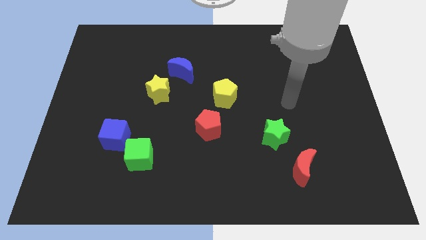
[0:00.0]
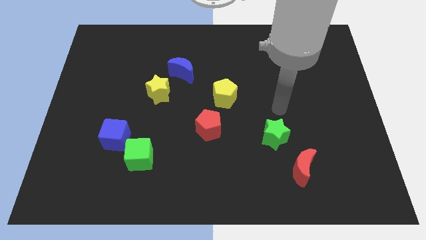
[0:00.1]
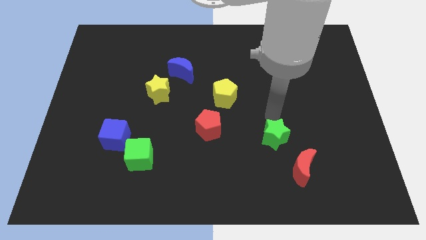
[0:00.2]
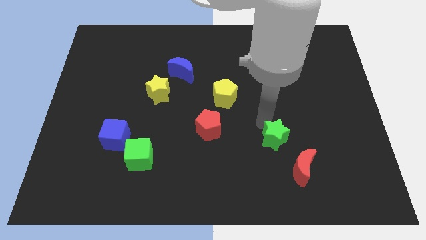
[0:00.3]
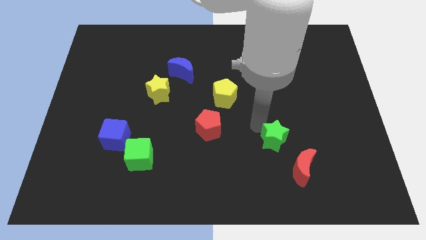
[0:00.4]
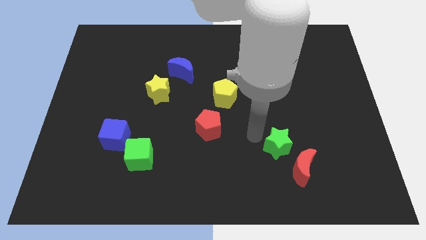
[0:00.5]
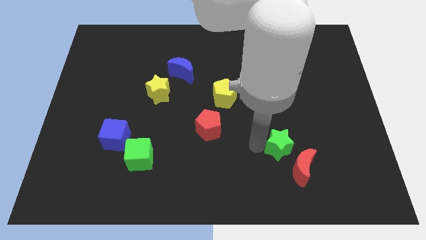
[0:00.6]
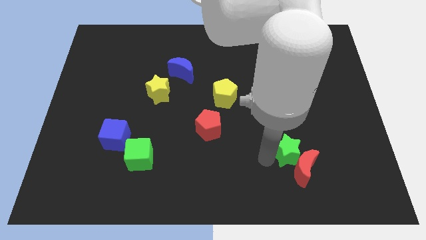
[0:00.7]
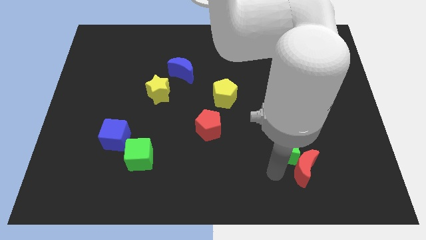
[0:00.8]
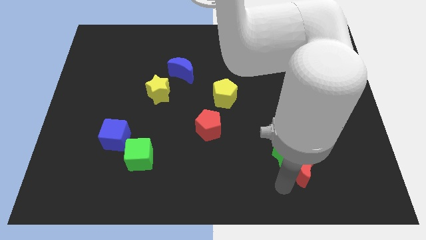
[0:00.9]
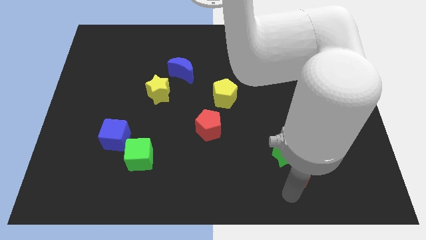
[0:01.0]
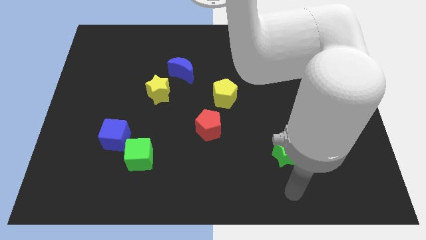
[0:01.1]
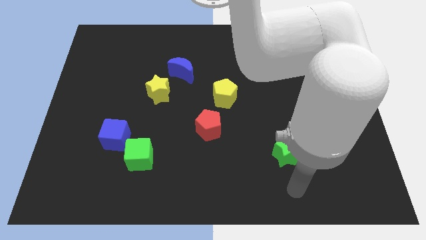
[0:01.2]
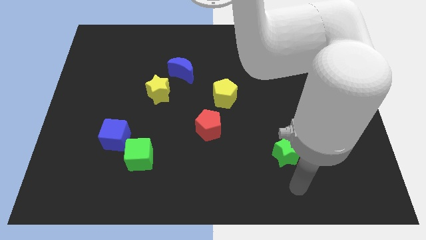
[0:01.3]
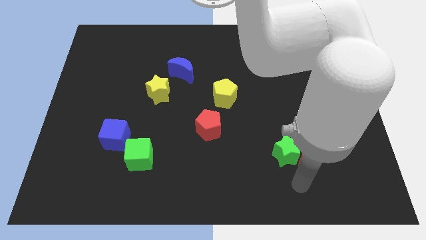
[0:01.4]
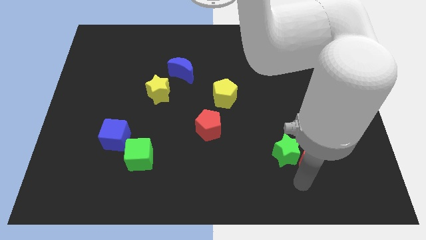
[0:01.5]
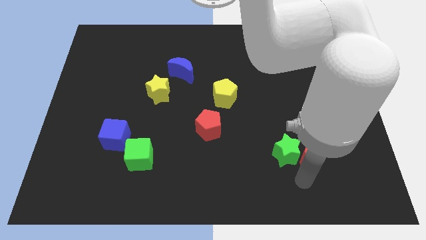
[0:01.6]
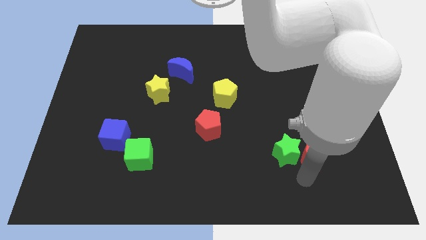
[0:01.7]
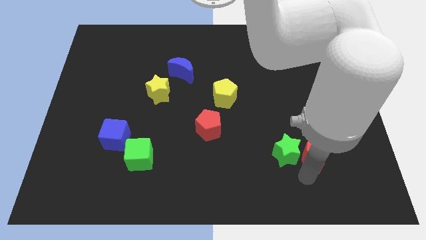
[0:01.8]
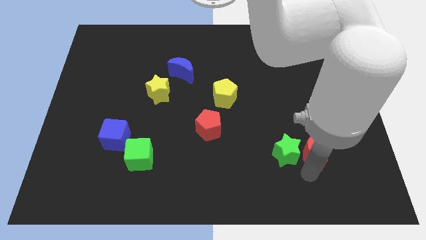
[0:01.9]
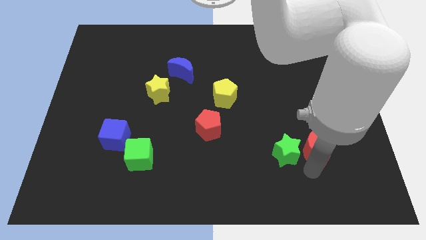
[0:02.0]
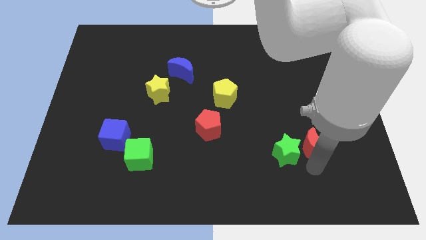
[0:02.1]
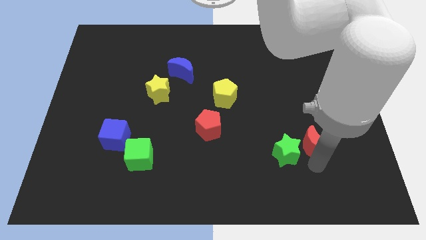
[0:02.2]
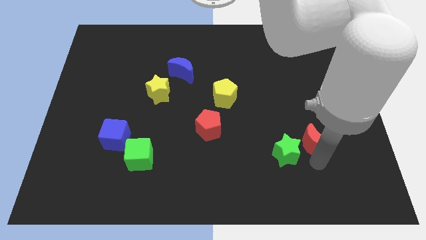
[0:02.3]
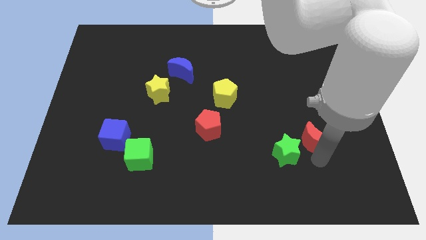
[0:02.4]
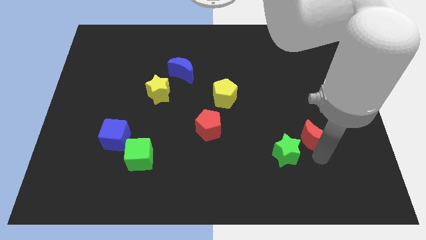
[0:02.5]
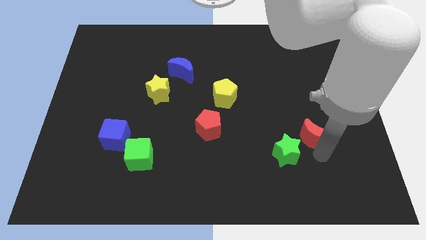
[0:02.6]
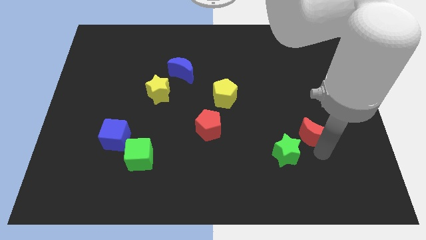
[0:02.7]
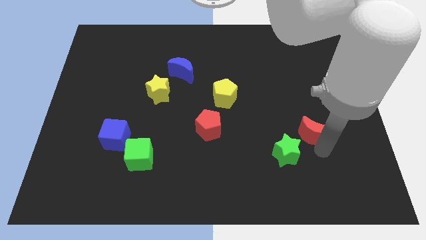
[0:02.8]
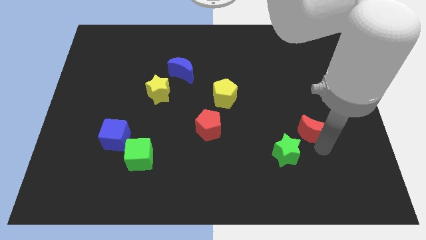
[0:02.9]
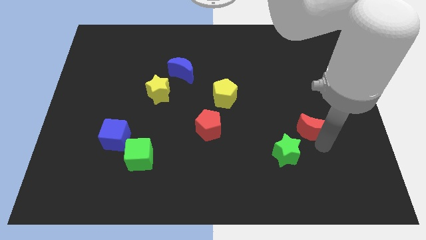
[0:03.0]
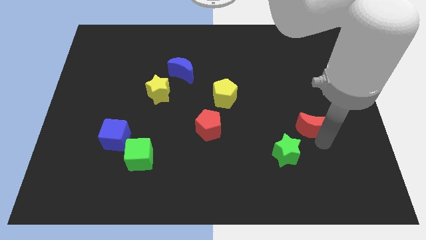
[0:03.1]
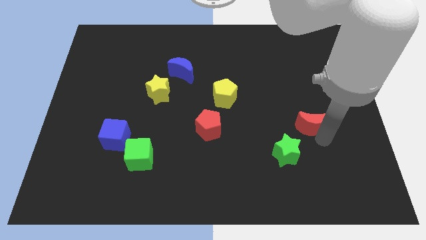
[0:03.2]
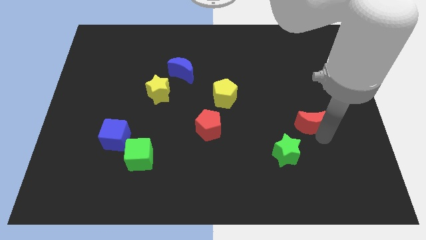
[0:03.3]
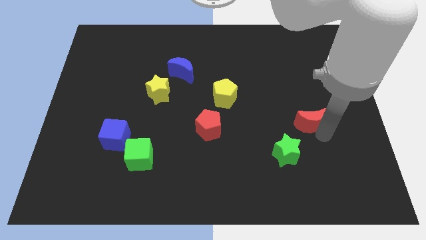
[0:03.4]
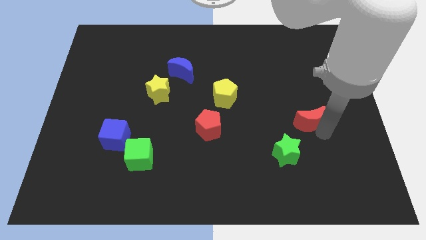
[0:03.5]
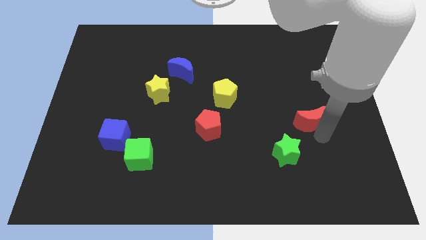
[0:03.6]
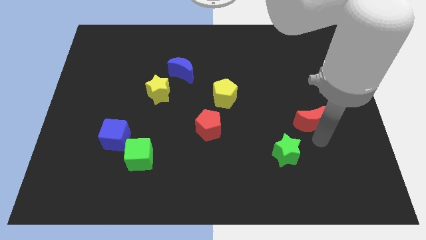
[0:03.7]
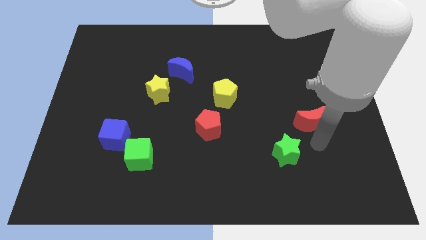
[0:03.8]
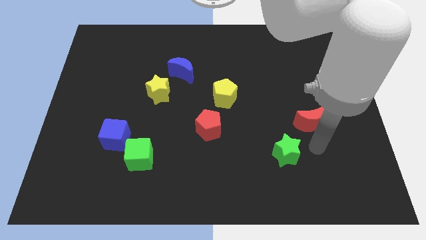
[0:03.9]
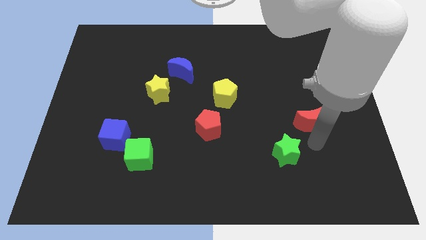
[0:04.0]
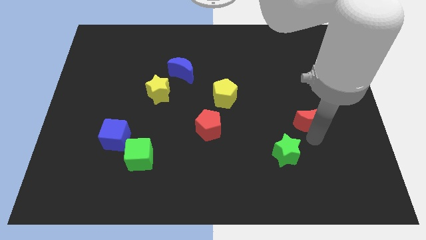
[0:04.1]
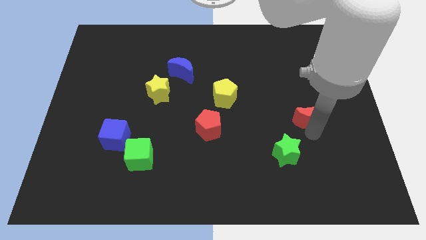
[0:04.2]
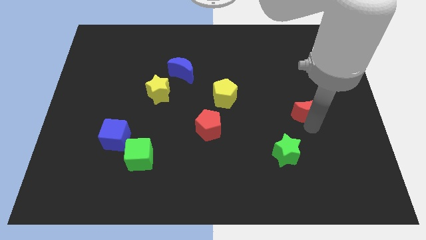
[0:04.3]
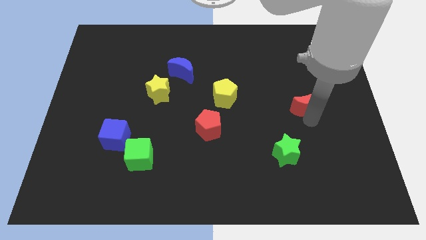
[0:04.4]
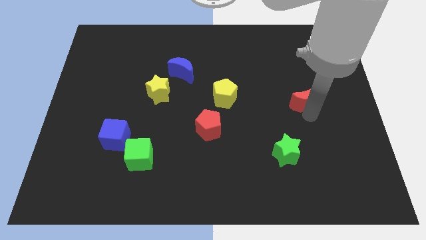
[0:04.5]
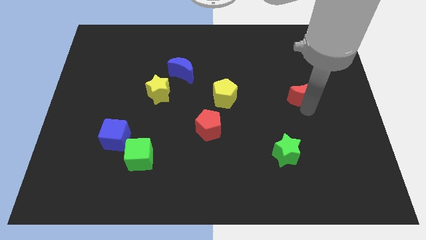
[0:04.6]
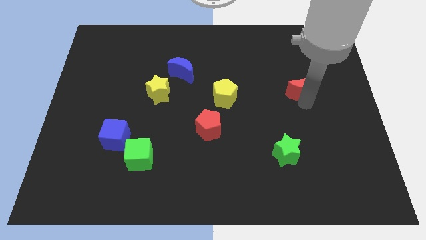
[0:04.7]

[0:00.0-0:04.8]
slide the red moon upwards

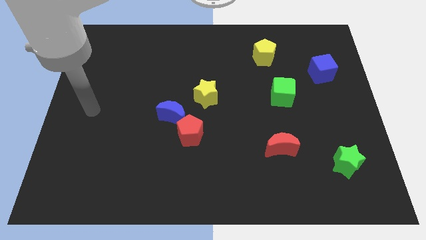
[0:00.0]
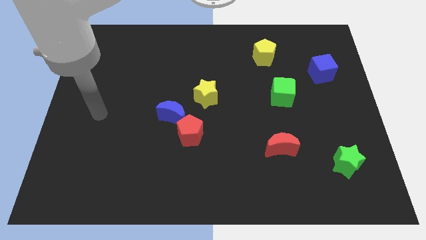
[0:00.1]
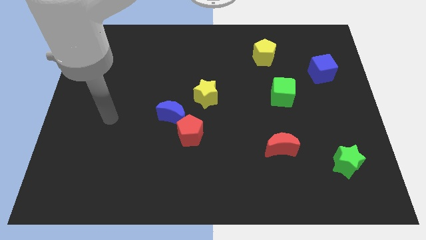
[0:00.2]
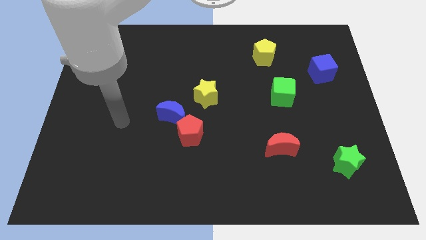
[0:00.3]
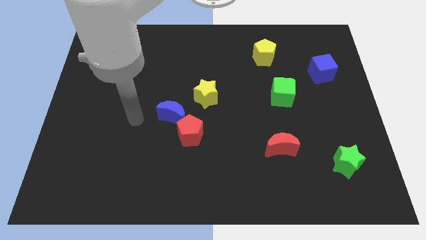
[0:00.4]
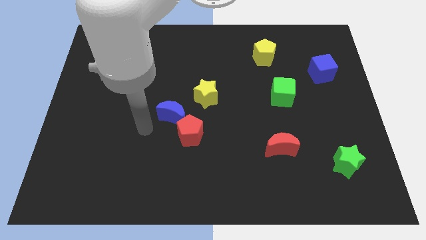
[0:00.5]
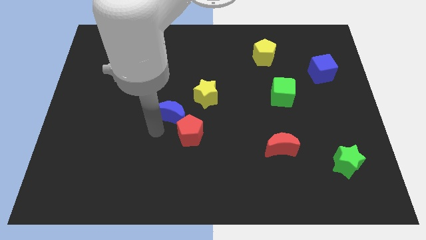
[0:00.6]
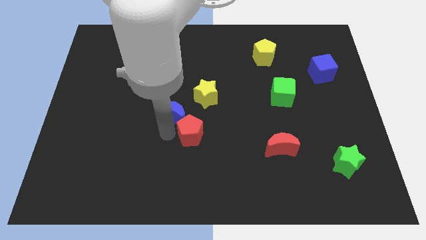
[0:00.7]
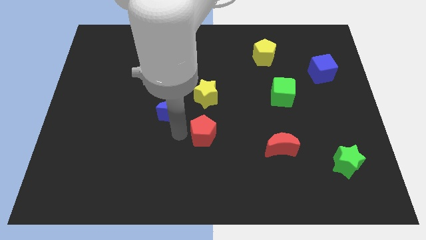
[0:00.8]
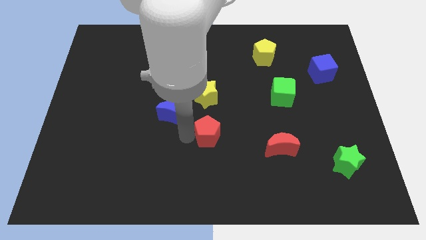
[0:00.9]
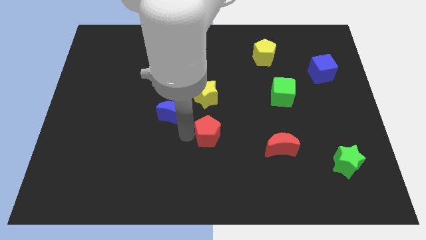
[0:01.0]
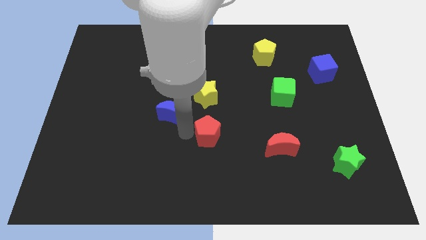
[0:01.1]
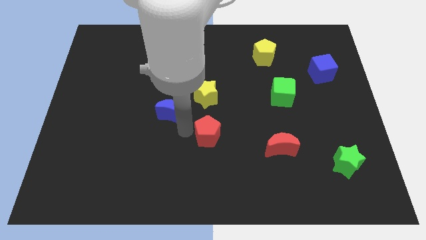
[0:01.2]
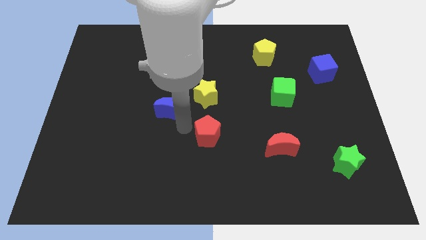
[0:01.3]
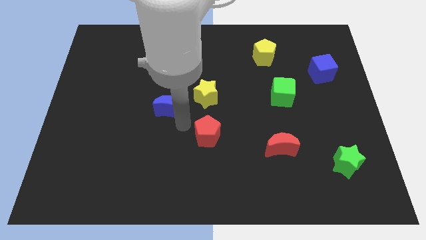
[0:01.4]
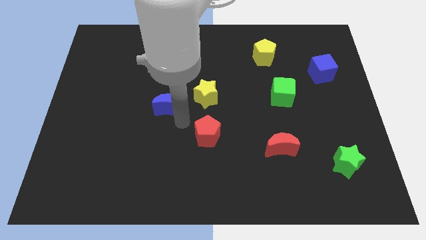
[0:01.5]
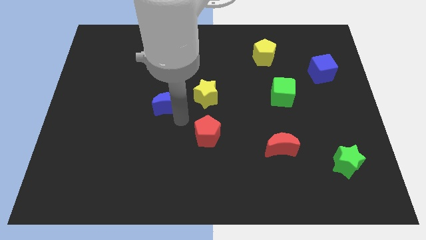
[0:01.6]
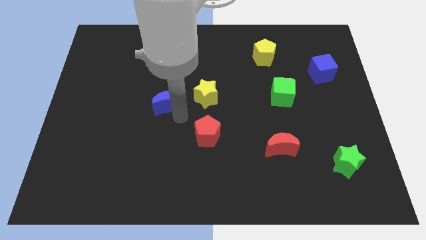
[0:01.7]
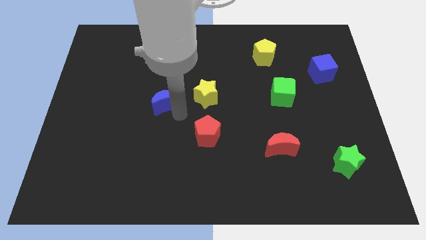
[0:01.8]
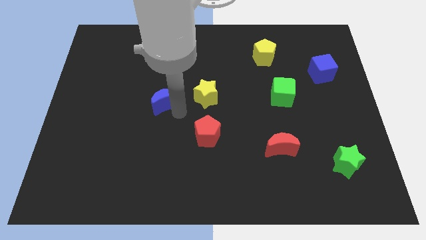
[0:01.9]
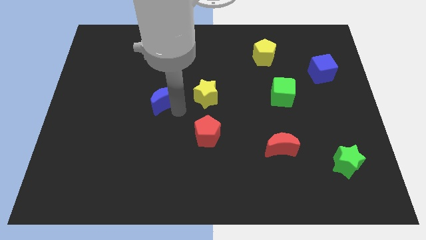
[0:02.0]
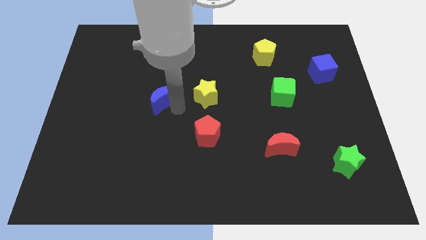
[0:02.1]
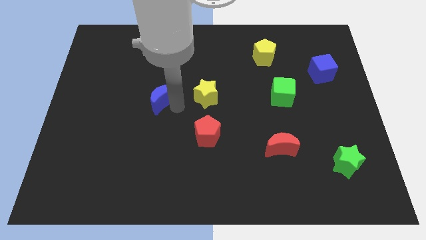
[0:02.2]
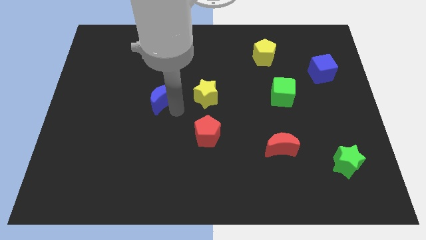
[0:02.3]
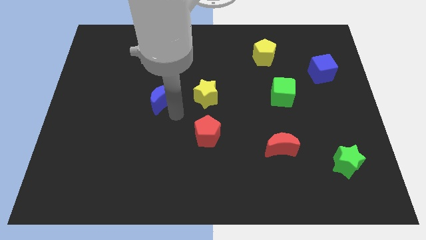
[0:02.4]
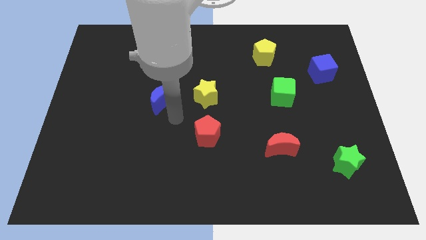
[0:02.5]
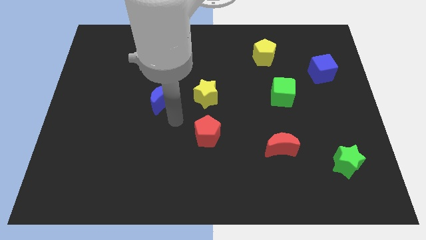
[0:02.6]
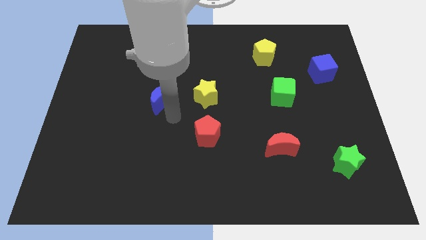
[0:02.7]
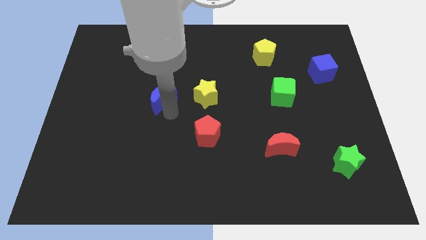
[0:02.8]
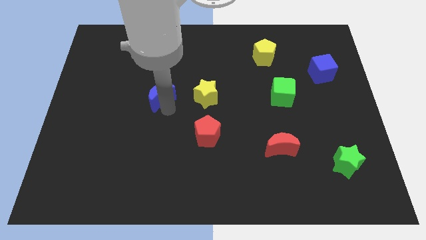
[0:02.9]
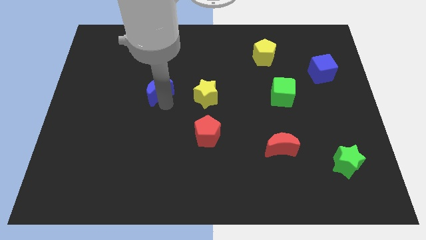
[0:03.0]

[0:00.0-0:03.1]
slightly slide the blue moon upwards and left

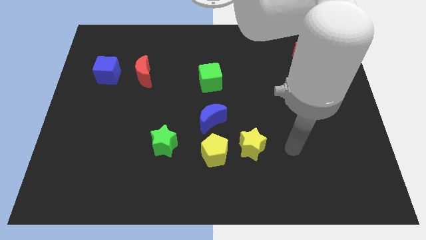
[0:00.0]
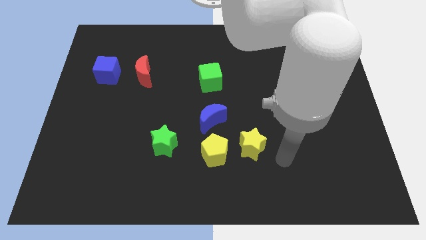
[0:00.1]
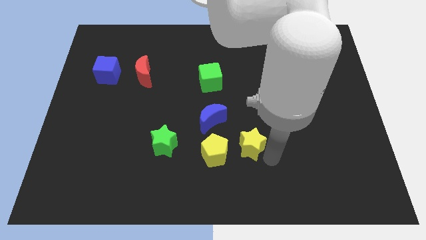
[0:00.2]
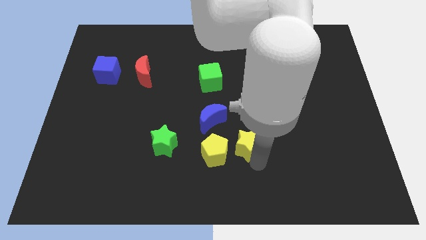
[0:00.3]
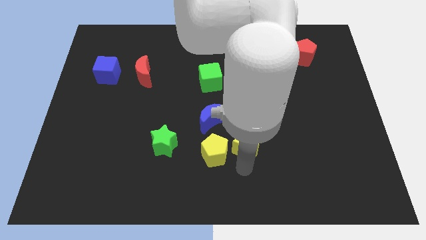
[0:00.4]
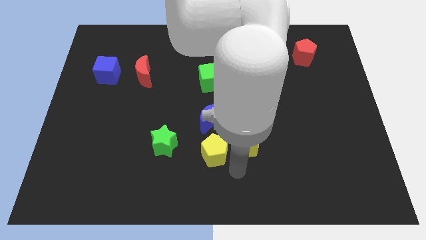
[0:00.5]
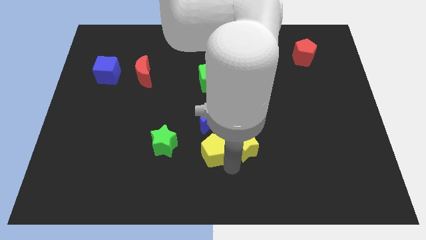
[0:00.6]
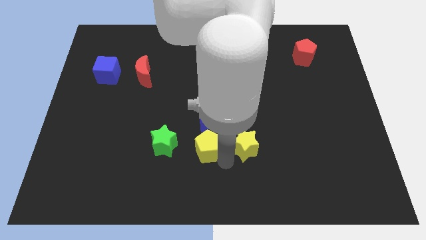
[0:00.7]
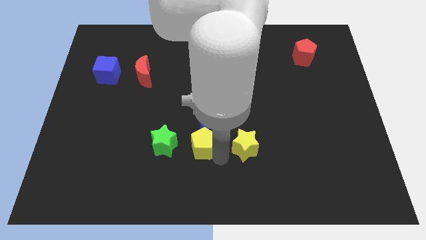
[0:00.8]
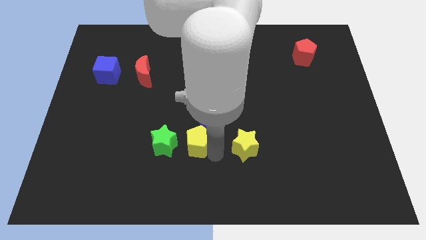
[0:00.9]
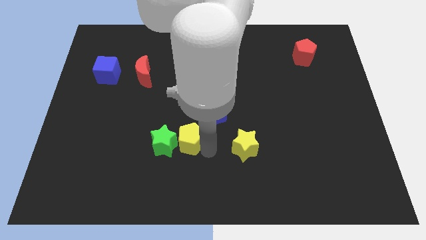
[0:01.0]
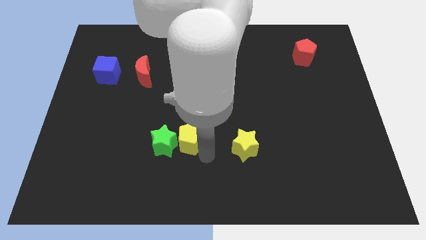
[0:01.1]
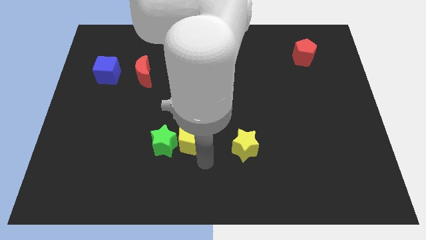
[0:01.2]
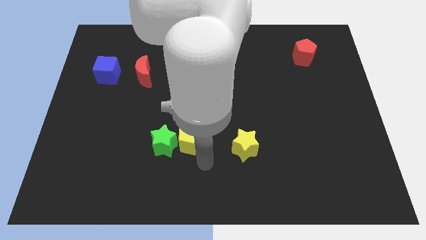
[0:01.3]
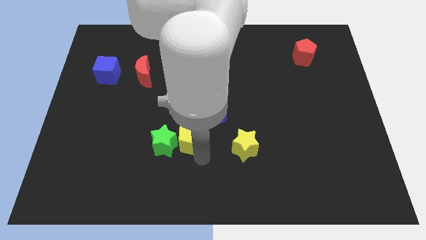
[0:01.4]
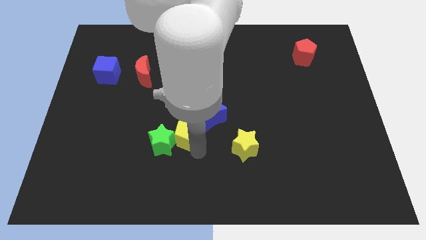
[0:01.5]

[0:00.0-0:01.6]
move the yellow pentagon diagonally up and to the left somewhat
